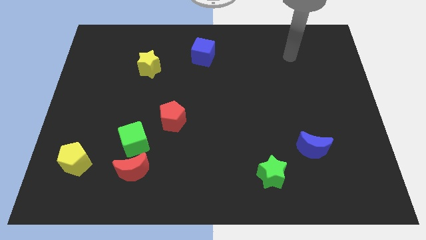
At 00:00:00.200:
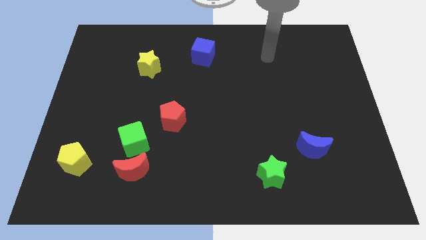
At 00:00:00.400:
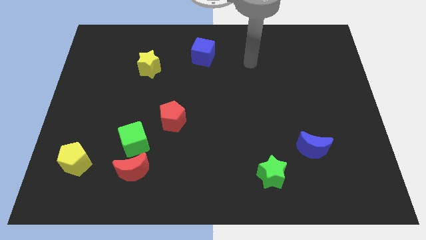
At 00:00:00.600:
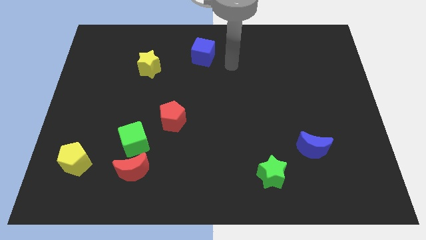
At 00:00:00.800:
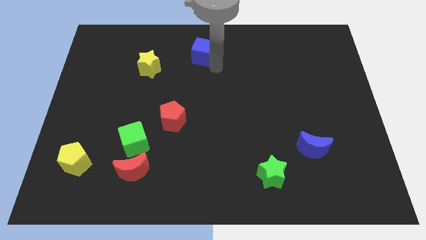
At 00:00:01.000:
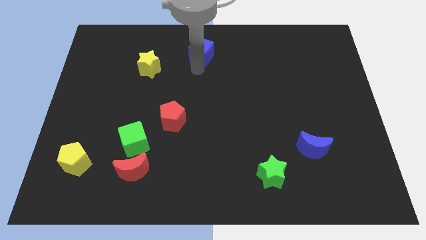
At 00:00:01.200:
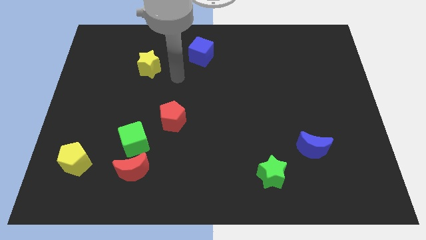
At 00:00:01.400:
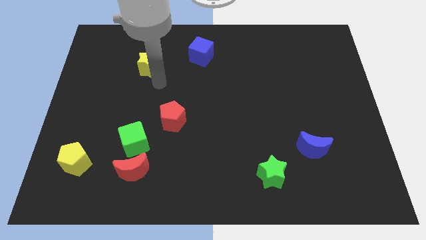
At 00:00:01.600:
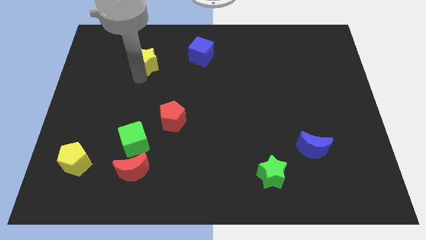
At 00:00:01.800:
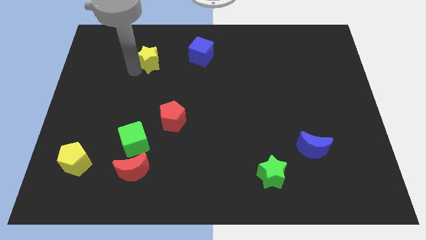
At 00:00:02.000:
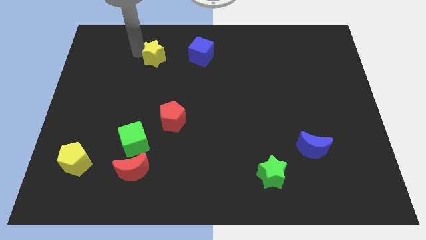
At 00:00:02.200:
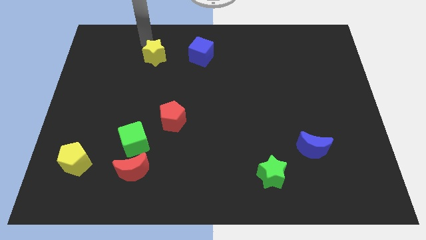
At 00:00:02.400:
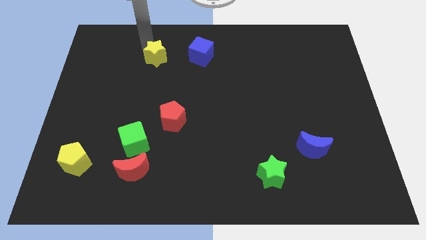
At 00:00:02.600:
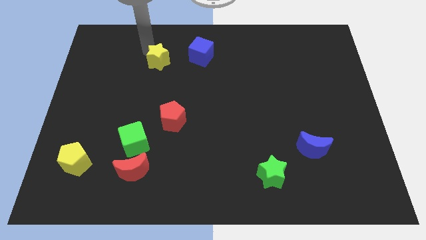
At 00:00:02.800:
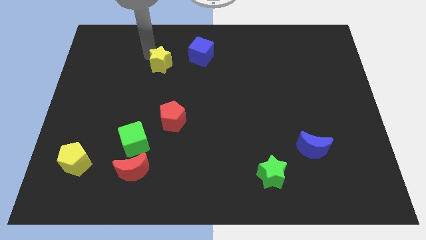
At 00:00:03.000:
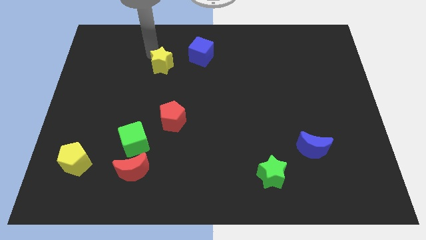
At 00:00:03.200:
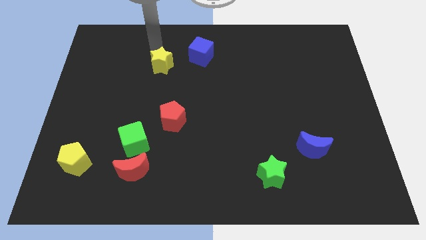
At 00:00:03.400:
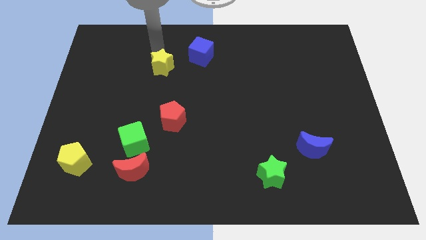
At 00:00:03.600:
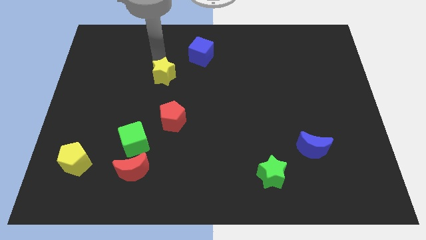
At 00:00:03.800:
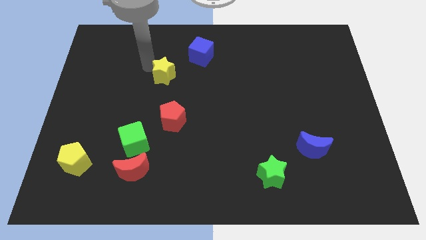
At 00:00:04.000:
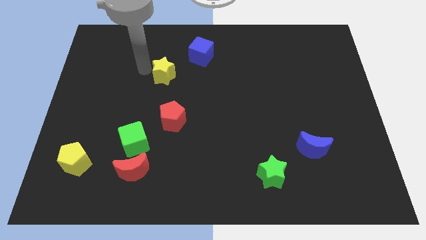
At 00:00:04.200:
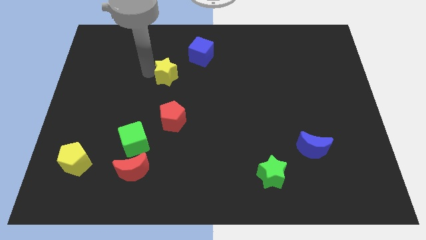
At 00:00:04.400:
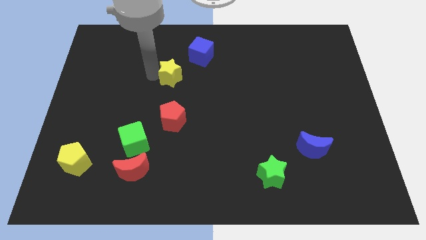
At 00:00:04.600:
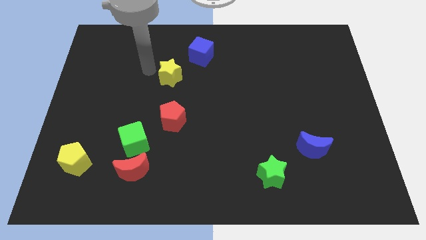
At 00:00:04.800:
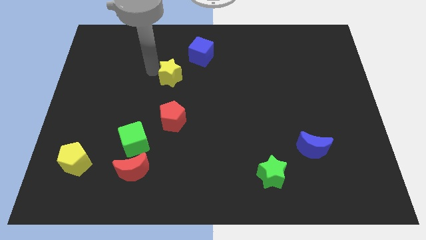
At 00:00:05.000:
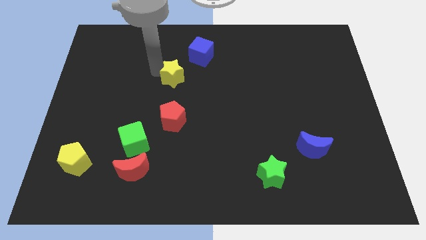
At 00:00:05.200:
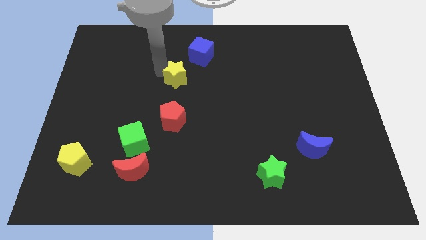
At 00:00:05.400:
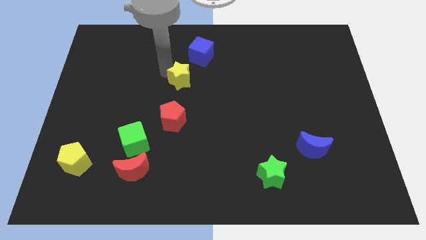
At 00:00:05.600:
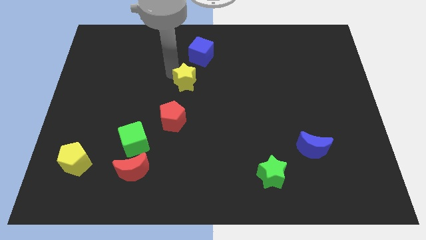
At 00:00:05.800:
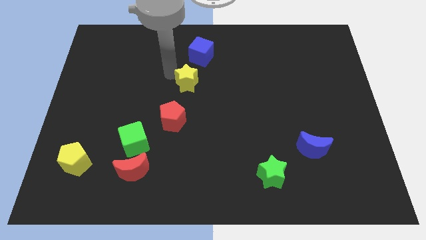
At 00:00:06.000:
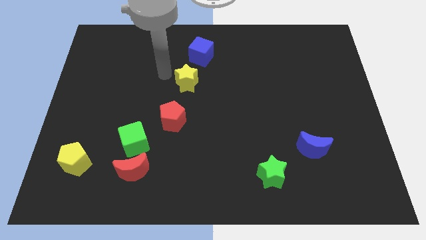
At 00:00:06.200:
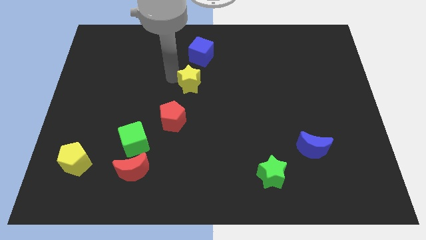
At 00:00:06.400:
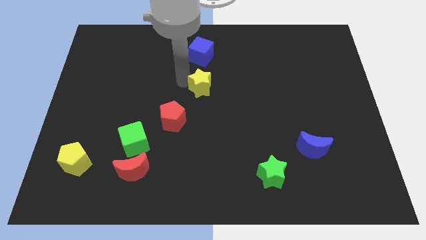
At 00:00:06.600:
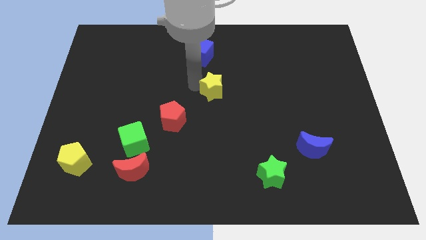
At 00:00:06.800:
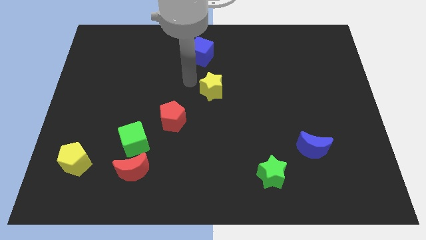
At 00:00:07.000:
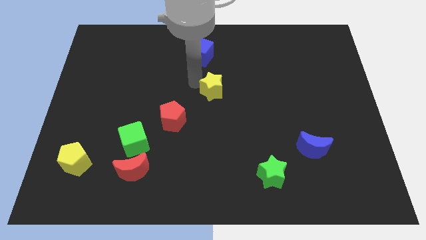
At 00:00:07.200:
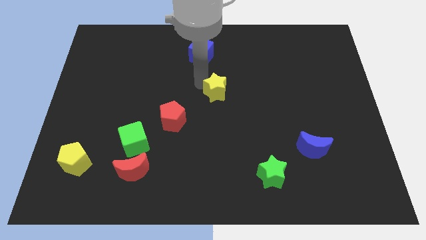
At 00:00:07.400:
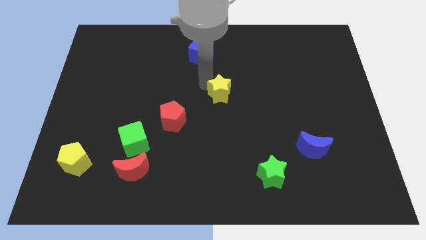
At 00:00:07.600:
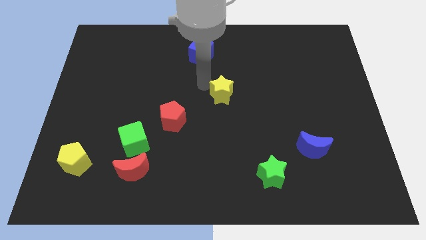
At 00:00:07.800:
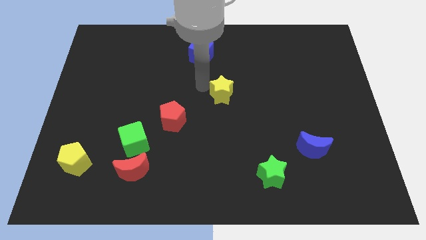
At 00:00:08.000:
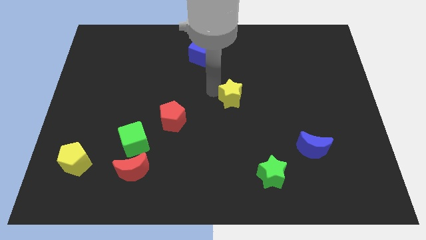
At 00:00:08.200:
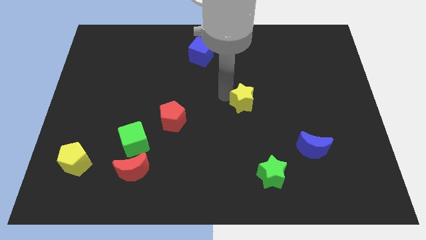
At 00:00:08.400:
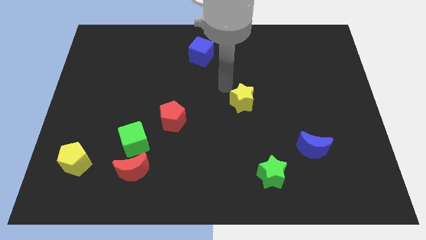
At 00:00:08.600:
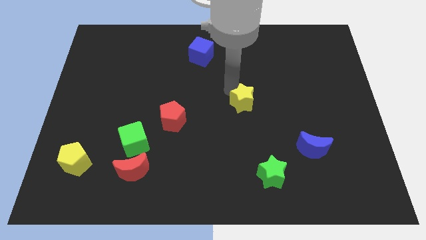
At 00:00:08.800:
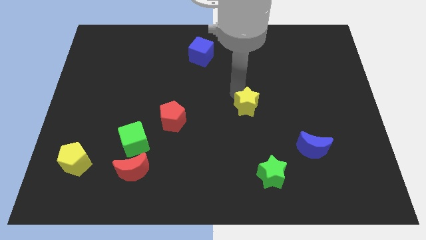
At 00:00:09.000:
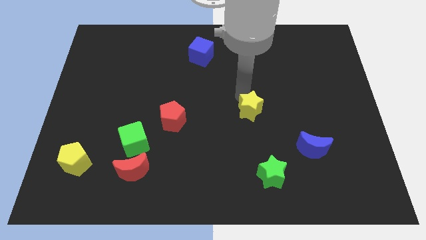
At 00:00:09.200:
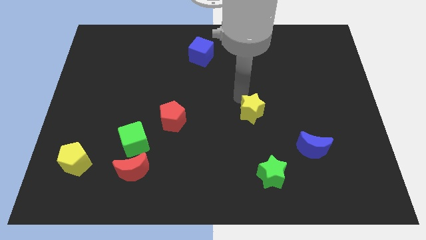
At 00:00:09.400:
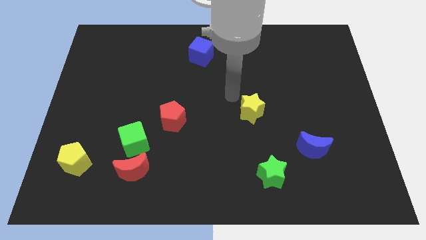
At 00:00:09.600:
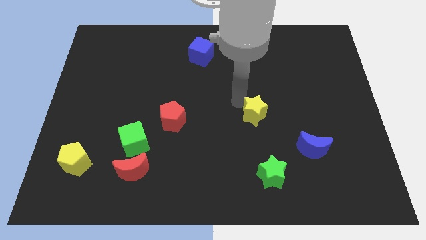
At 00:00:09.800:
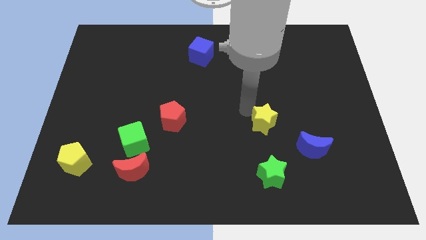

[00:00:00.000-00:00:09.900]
put the yellow star to the top left of the blue moon

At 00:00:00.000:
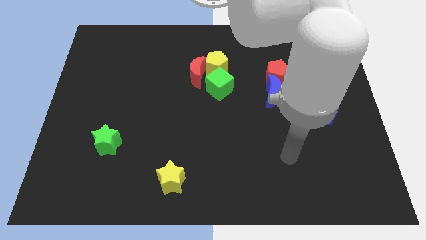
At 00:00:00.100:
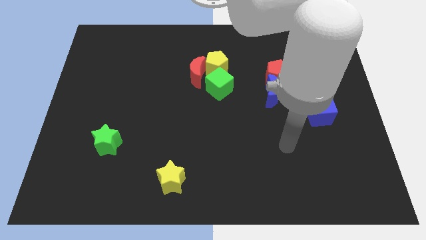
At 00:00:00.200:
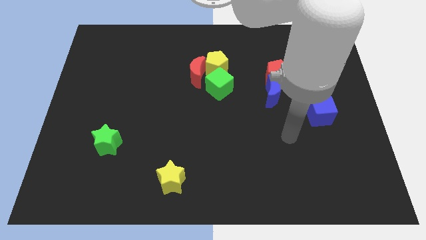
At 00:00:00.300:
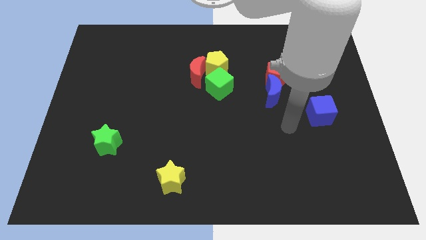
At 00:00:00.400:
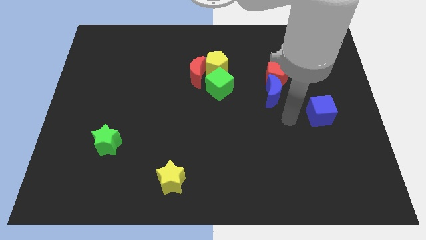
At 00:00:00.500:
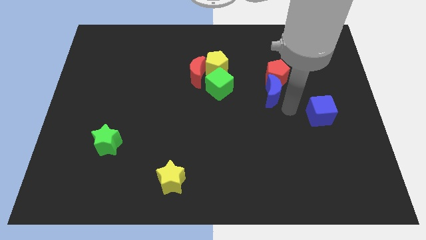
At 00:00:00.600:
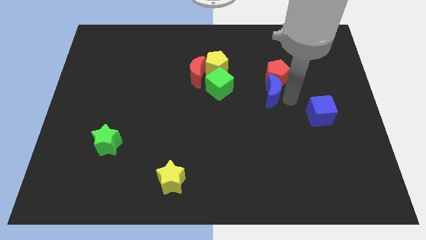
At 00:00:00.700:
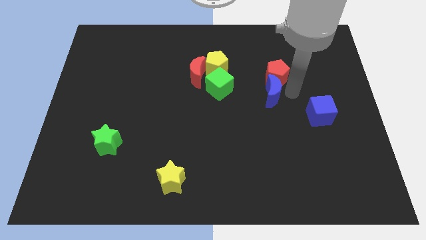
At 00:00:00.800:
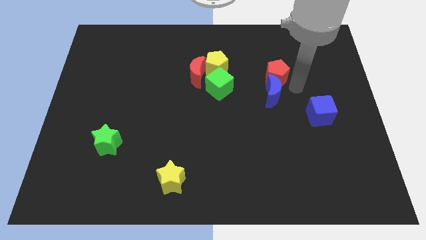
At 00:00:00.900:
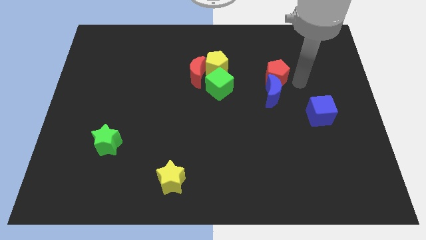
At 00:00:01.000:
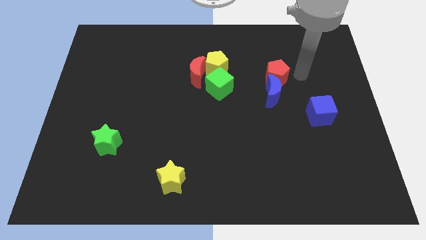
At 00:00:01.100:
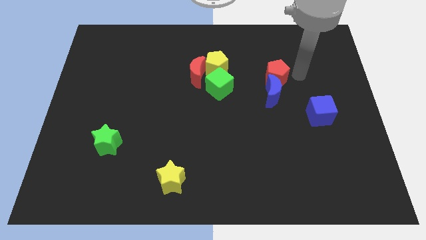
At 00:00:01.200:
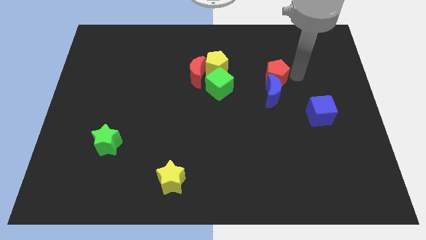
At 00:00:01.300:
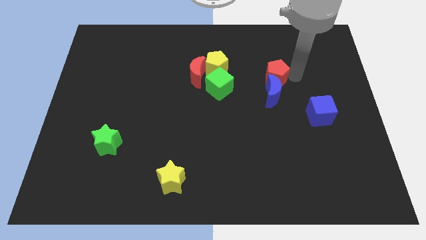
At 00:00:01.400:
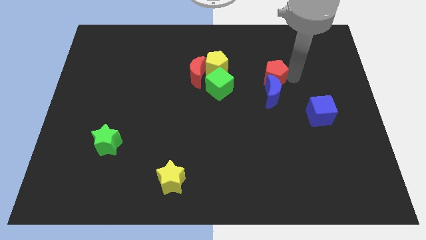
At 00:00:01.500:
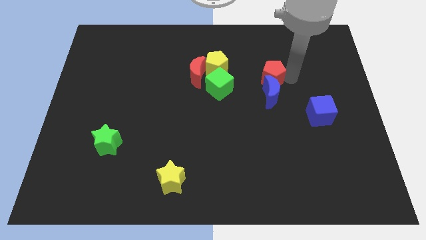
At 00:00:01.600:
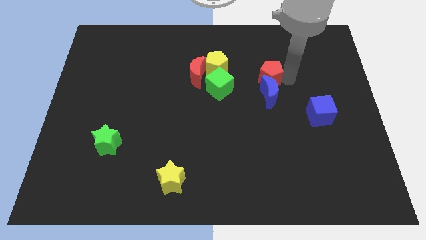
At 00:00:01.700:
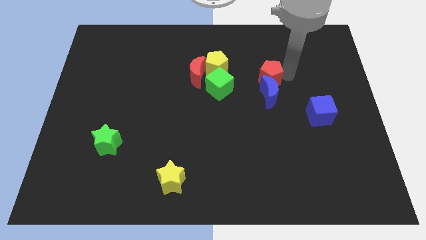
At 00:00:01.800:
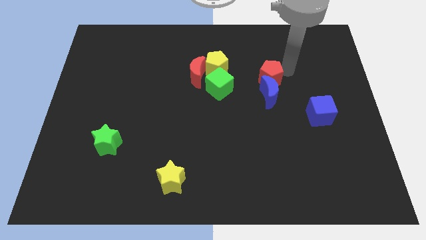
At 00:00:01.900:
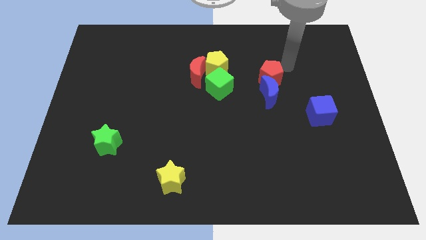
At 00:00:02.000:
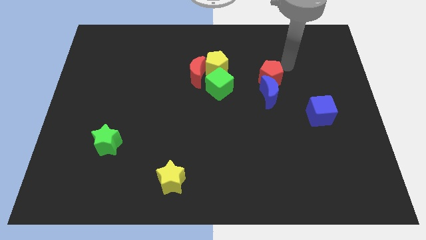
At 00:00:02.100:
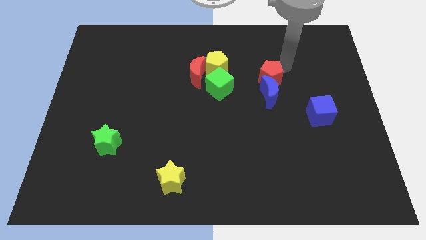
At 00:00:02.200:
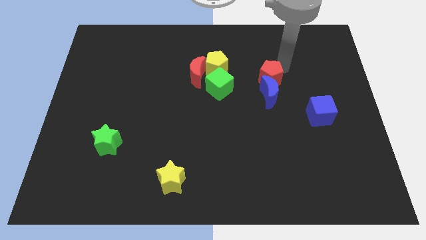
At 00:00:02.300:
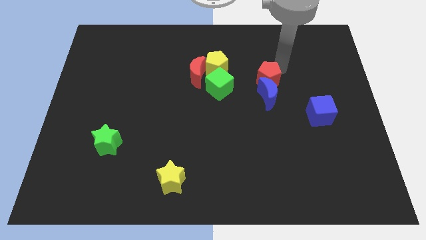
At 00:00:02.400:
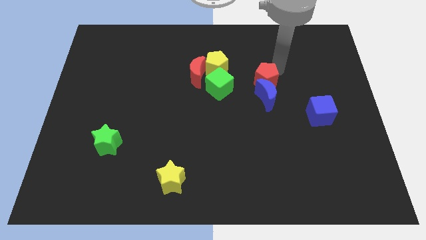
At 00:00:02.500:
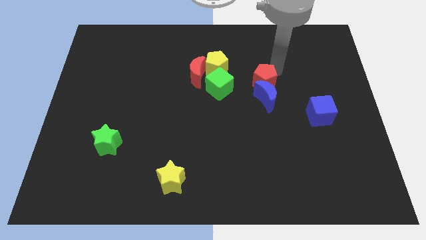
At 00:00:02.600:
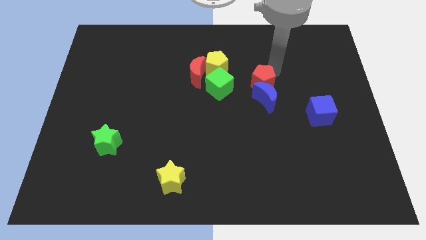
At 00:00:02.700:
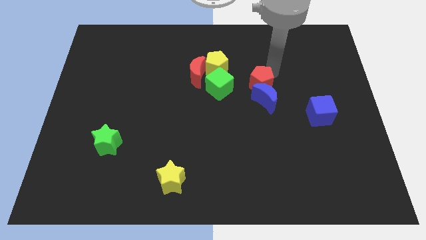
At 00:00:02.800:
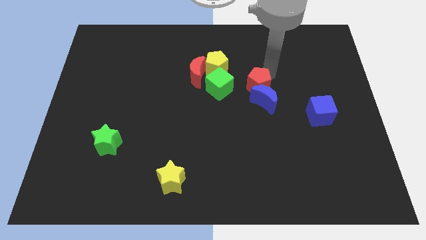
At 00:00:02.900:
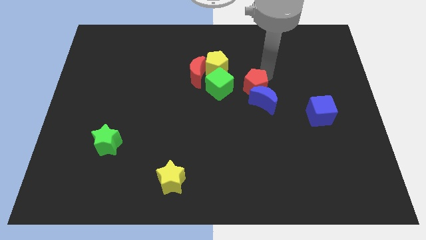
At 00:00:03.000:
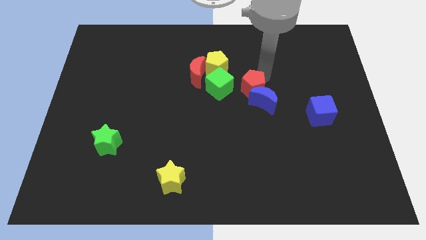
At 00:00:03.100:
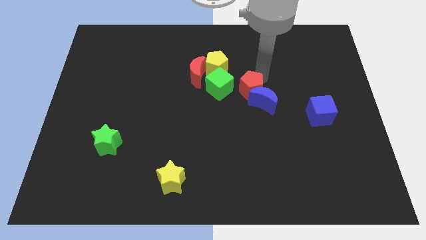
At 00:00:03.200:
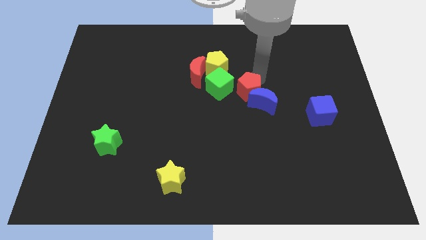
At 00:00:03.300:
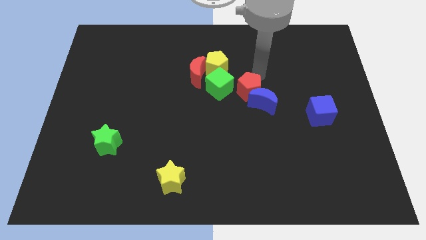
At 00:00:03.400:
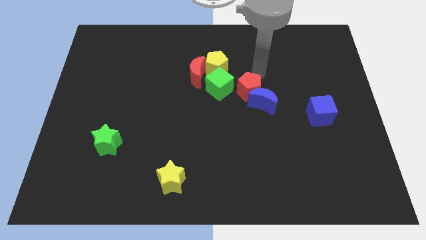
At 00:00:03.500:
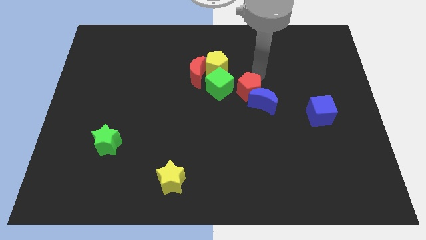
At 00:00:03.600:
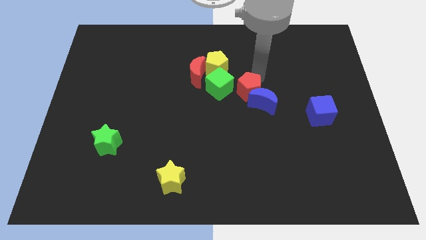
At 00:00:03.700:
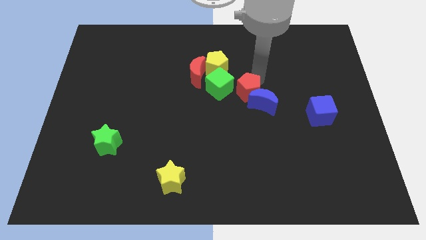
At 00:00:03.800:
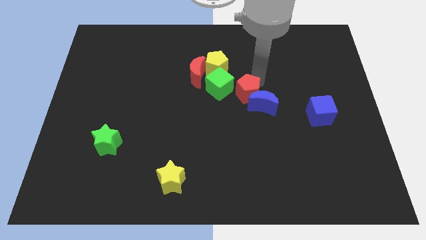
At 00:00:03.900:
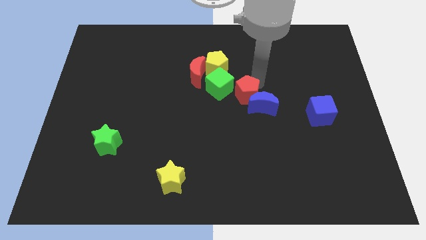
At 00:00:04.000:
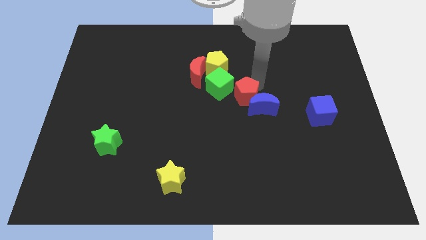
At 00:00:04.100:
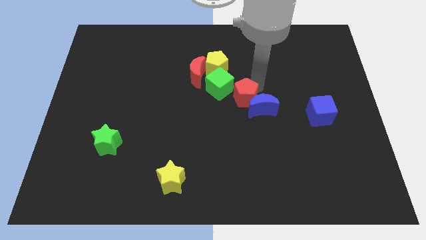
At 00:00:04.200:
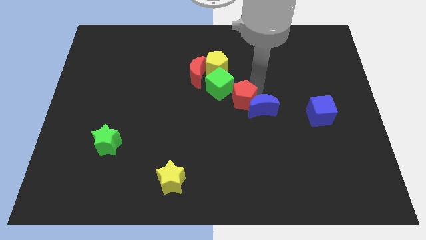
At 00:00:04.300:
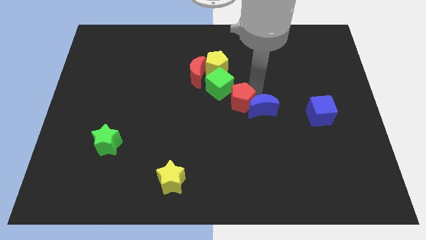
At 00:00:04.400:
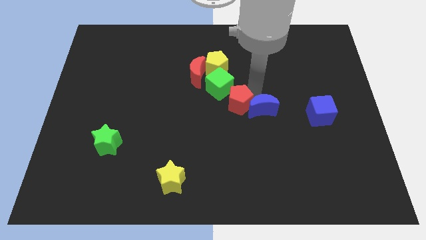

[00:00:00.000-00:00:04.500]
push the red pentagon to the bottom of the green cube
